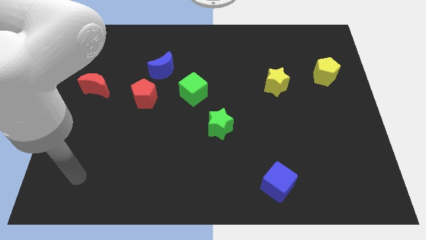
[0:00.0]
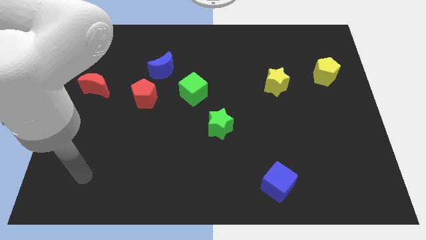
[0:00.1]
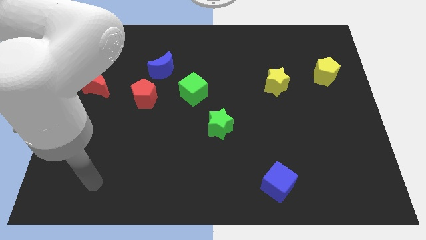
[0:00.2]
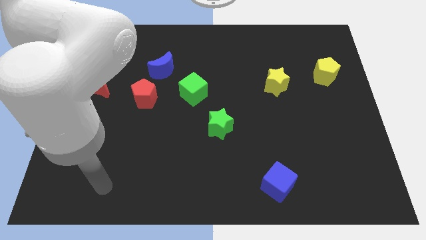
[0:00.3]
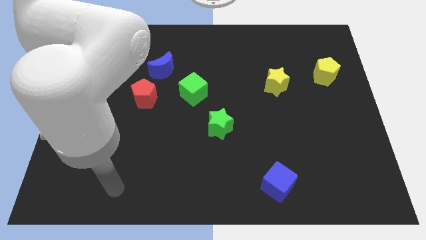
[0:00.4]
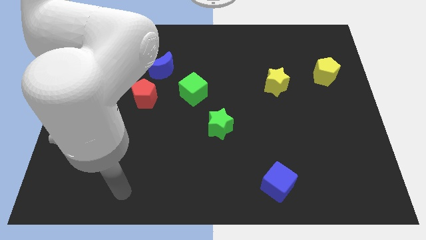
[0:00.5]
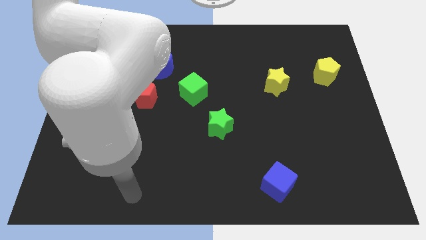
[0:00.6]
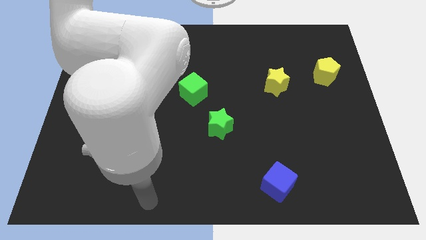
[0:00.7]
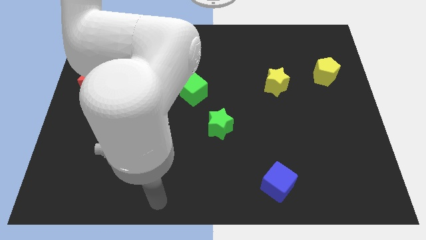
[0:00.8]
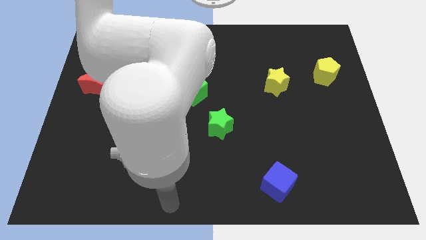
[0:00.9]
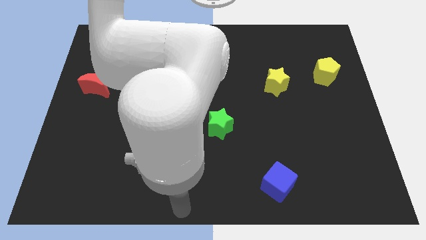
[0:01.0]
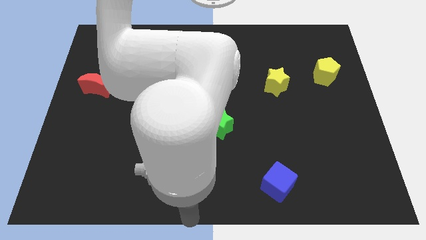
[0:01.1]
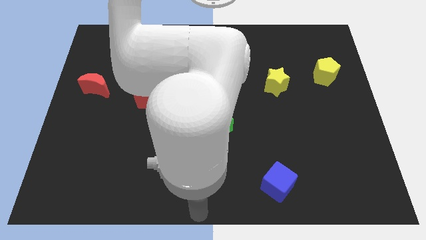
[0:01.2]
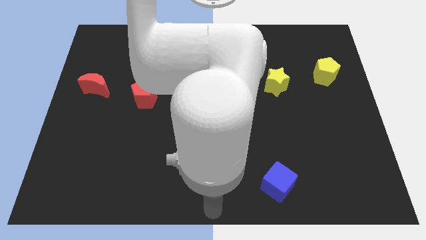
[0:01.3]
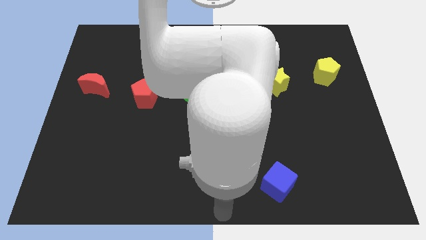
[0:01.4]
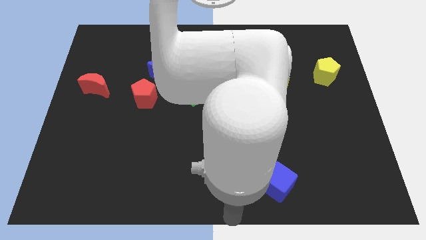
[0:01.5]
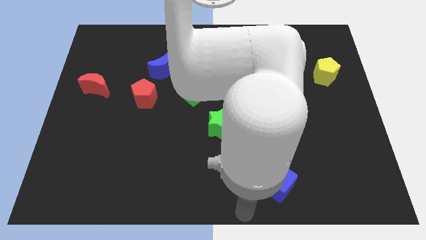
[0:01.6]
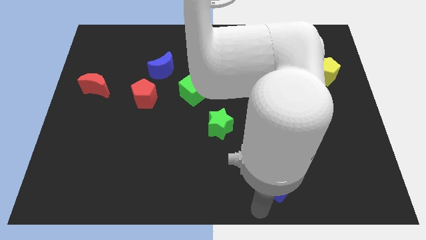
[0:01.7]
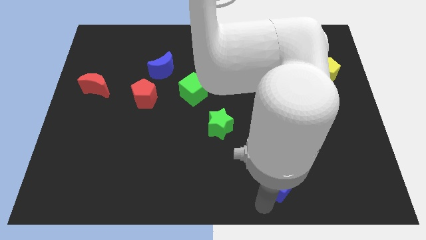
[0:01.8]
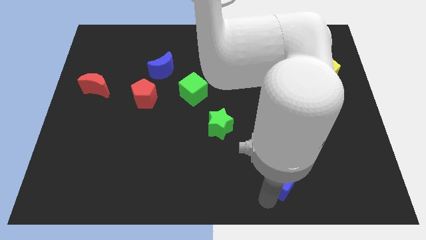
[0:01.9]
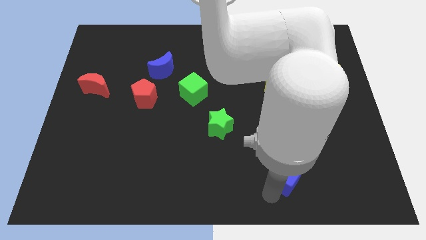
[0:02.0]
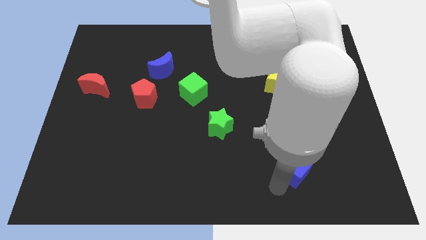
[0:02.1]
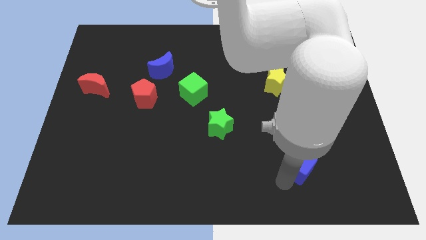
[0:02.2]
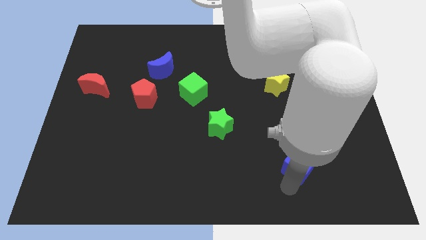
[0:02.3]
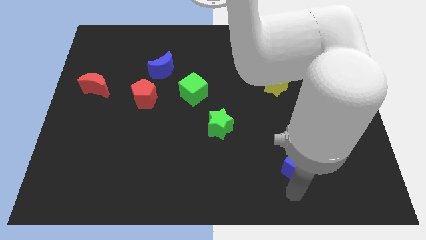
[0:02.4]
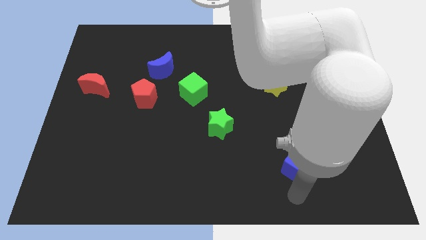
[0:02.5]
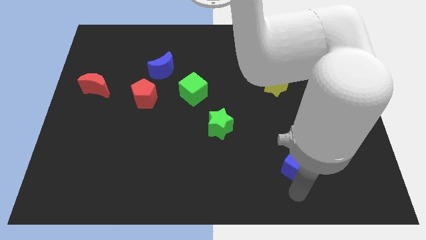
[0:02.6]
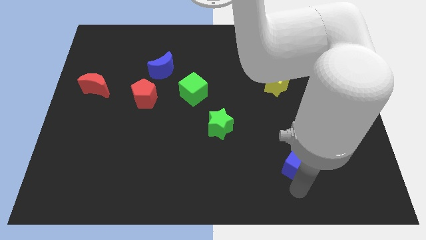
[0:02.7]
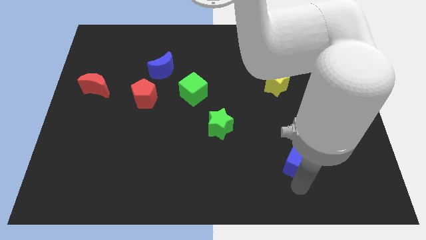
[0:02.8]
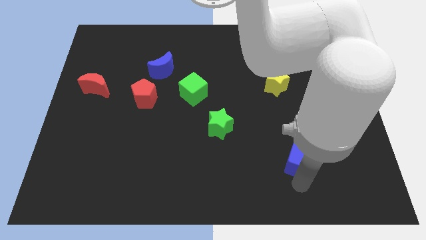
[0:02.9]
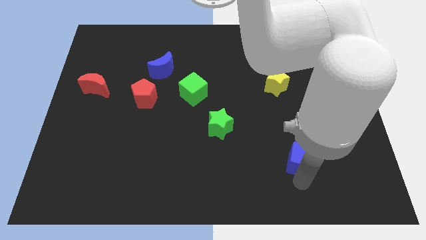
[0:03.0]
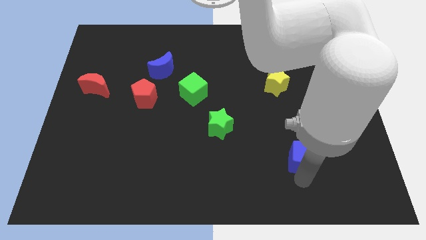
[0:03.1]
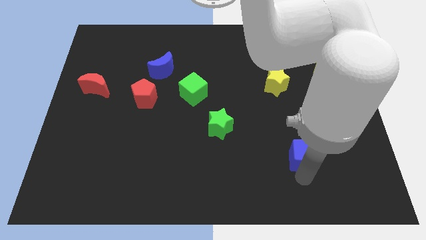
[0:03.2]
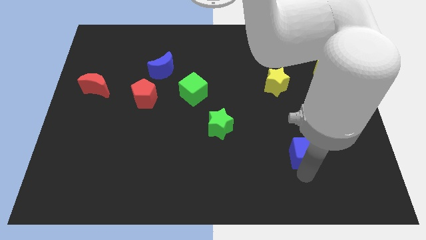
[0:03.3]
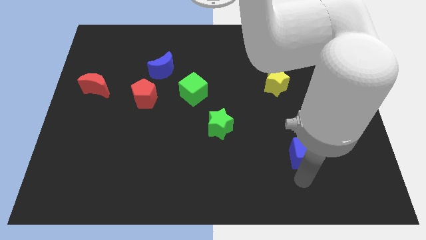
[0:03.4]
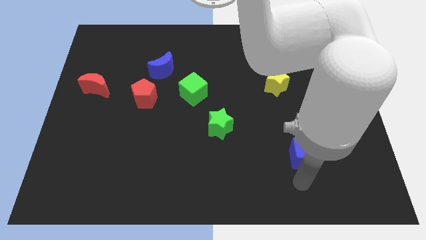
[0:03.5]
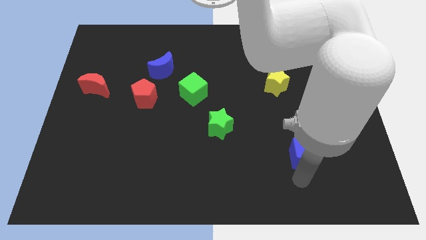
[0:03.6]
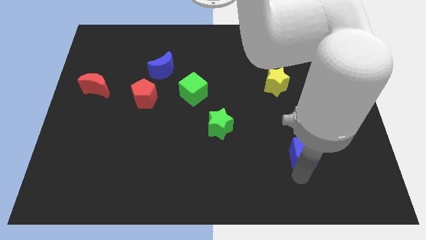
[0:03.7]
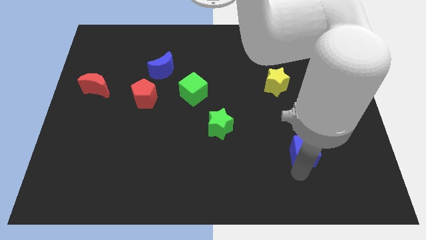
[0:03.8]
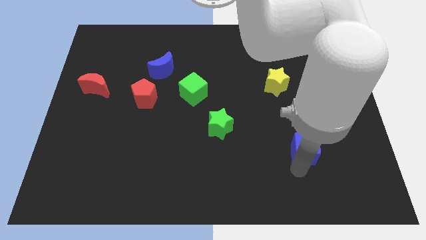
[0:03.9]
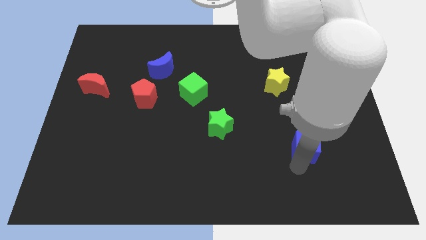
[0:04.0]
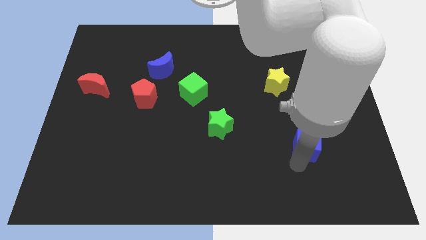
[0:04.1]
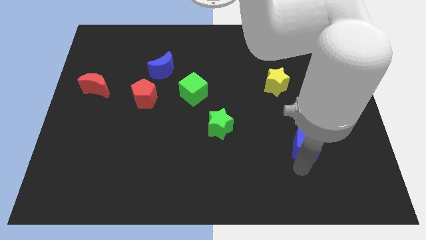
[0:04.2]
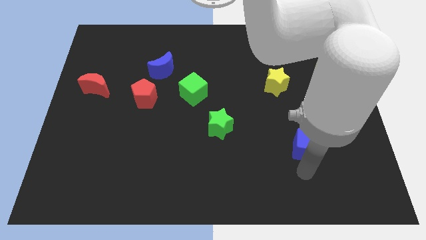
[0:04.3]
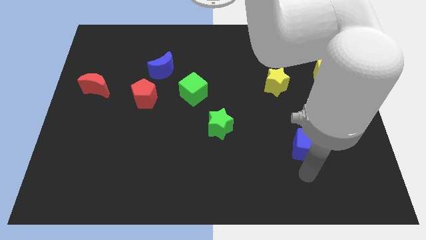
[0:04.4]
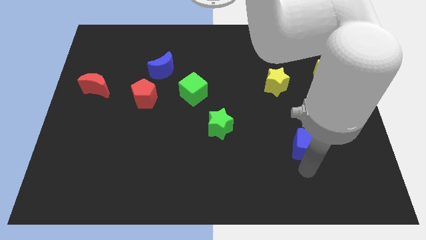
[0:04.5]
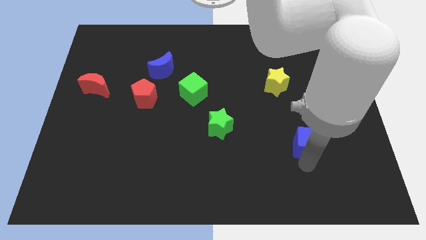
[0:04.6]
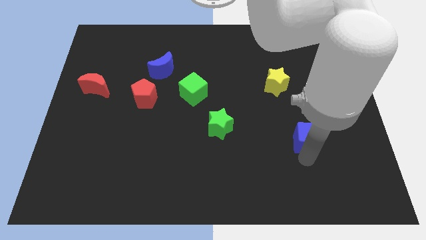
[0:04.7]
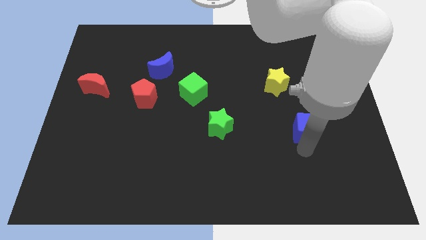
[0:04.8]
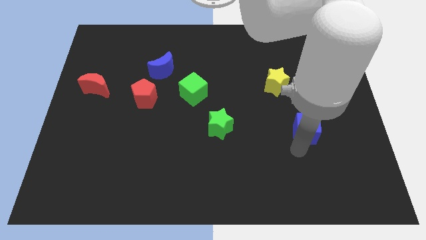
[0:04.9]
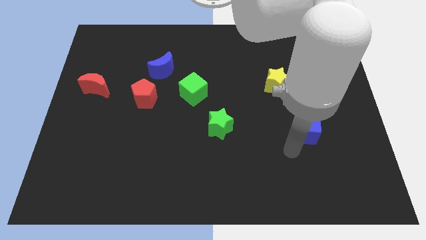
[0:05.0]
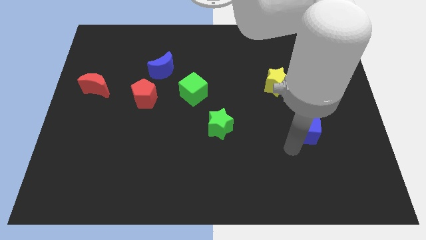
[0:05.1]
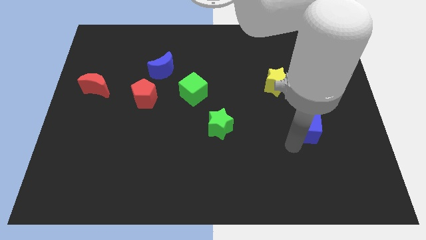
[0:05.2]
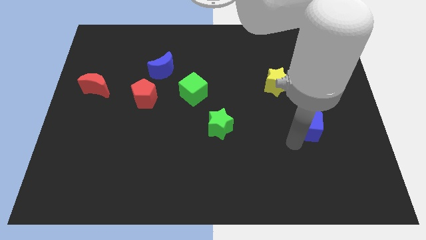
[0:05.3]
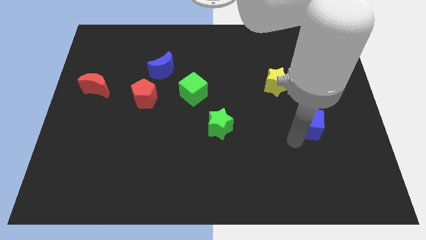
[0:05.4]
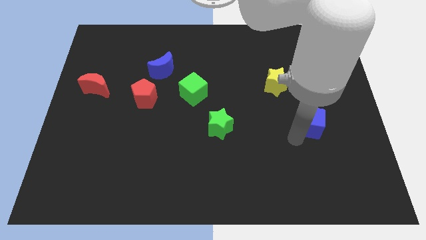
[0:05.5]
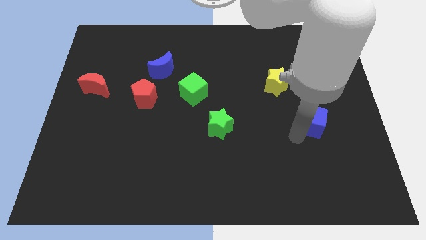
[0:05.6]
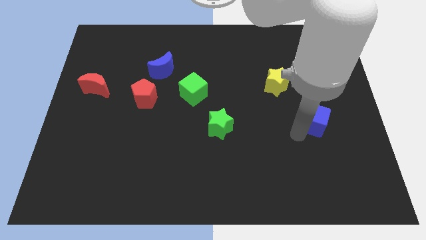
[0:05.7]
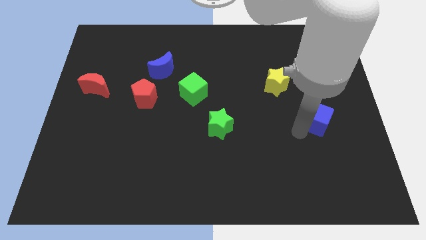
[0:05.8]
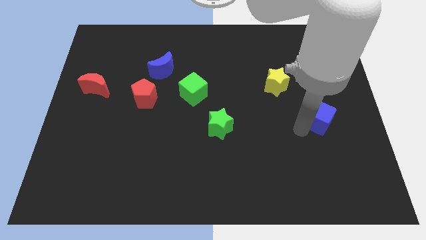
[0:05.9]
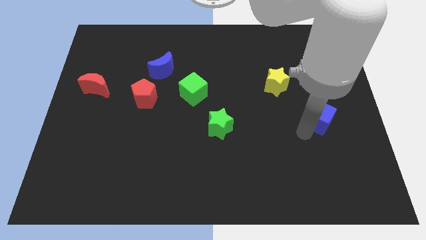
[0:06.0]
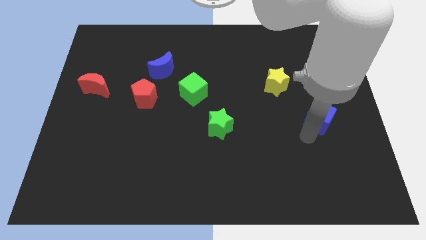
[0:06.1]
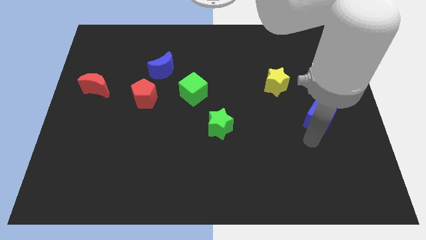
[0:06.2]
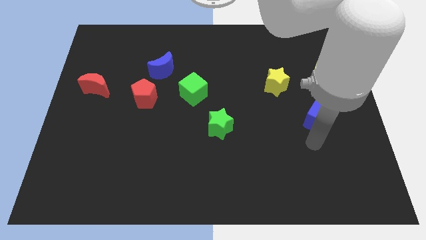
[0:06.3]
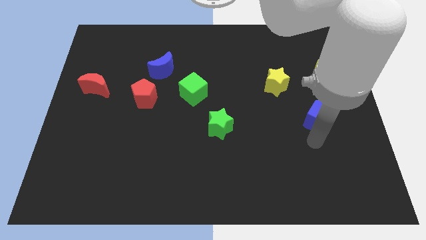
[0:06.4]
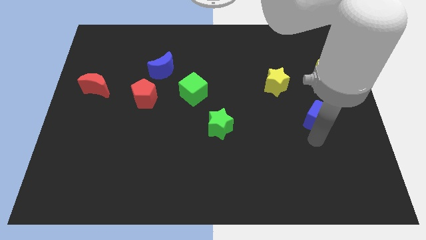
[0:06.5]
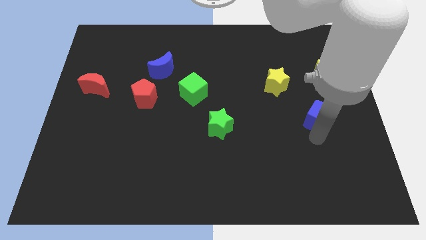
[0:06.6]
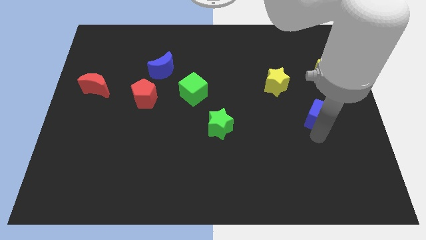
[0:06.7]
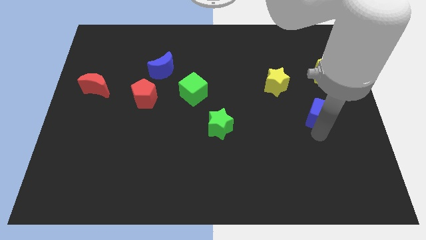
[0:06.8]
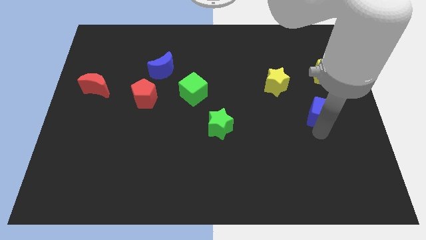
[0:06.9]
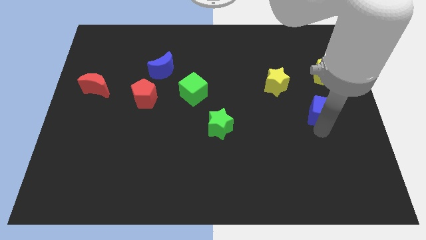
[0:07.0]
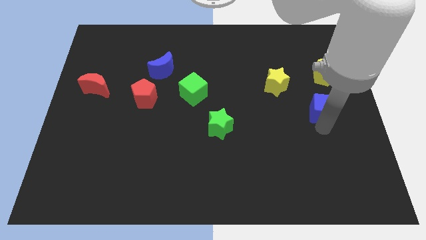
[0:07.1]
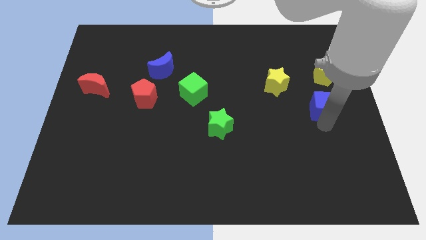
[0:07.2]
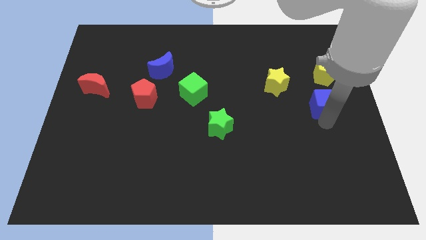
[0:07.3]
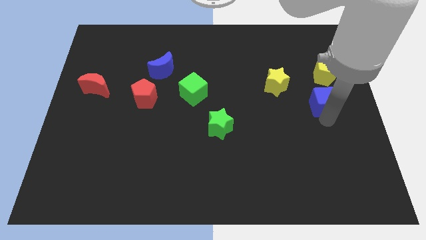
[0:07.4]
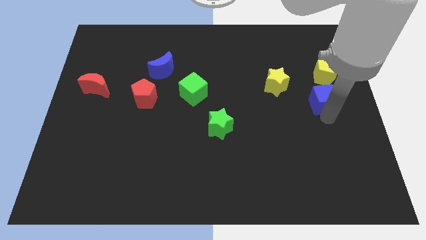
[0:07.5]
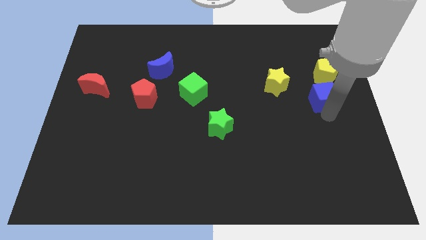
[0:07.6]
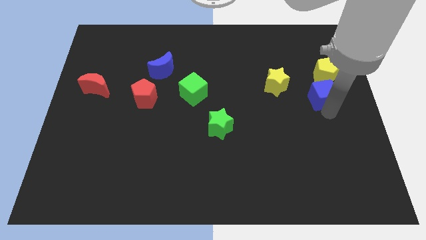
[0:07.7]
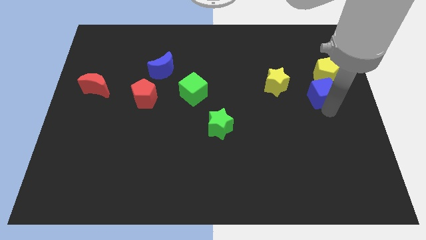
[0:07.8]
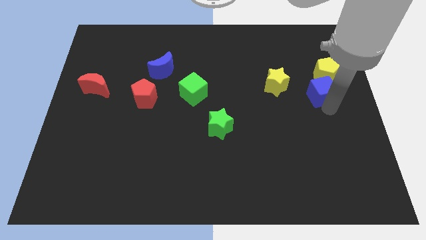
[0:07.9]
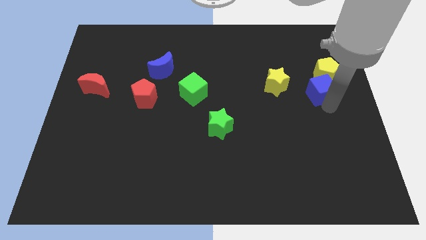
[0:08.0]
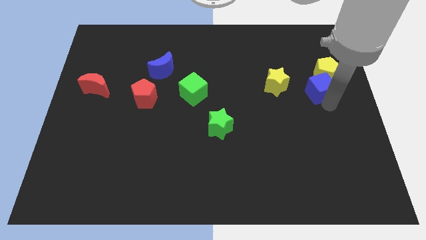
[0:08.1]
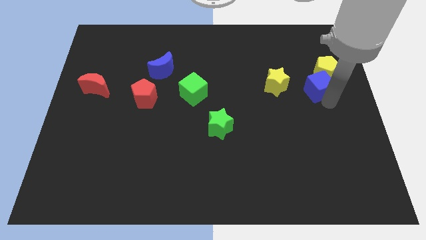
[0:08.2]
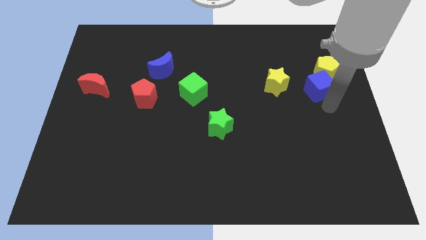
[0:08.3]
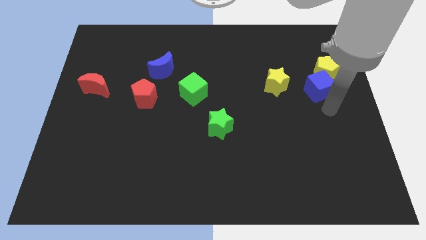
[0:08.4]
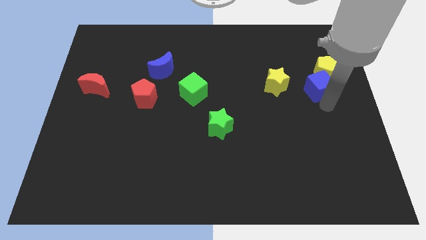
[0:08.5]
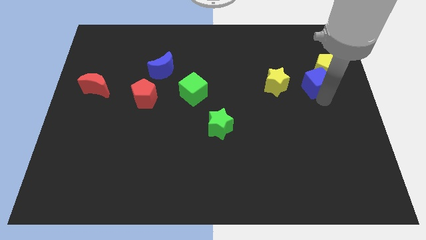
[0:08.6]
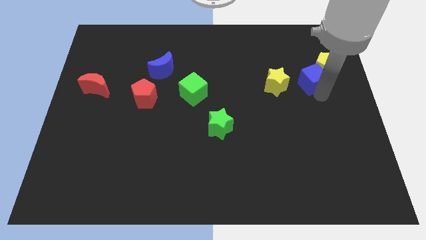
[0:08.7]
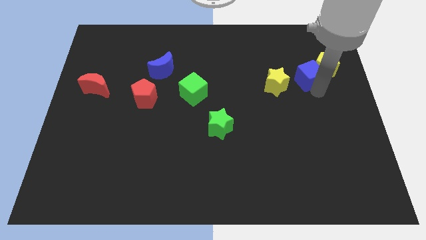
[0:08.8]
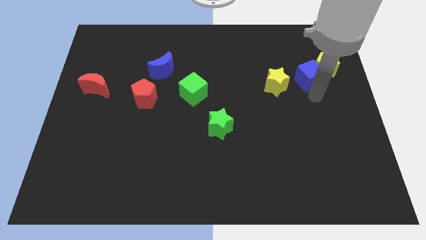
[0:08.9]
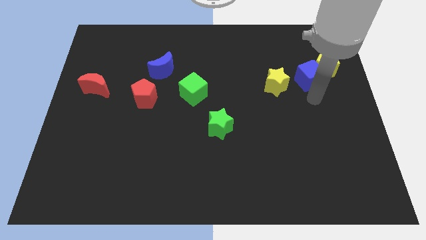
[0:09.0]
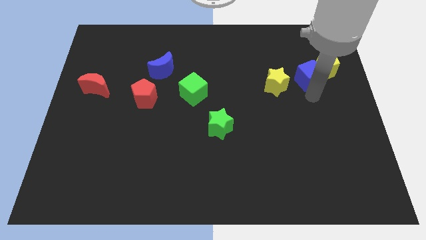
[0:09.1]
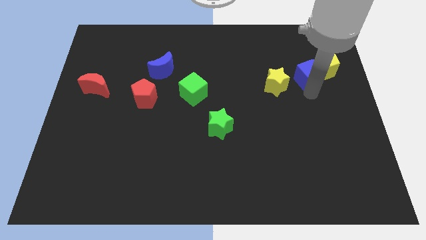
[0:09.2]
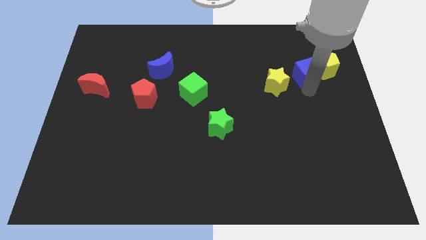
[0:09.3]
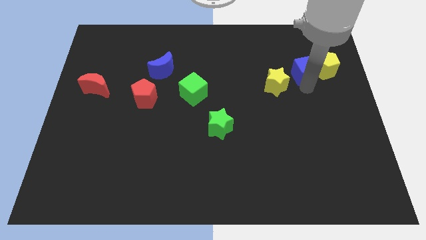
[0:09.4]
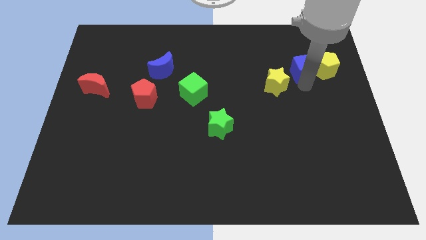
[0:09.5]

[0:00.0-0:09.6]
push the blue cube to the top left of the yellow pentagon
